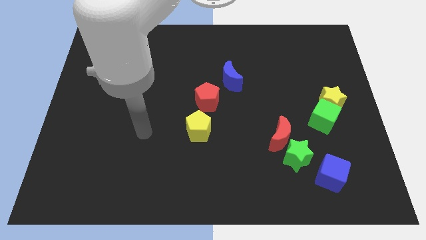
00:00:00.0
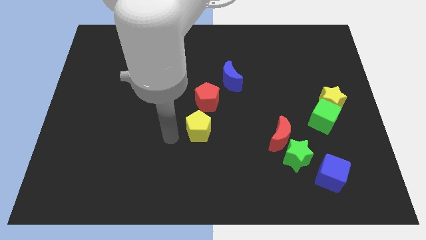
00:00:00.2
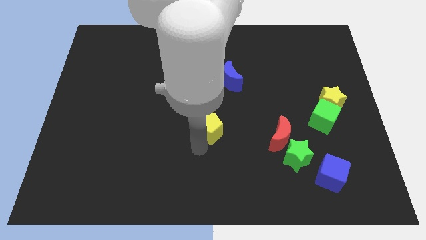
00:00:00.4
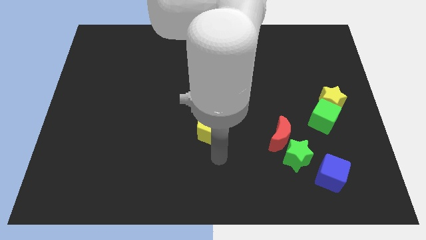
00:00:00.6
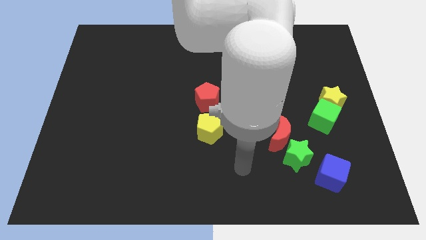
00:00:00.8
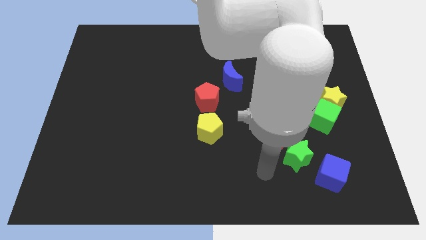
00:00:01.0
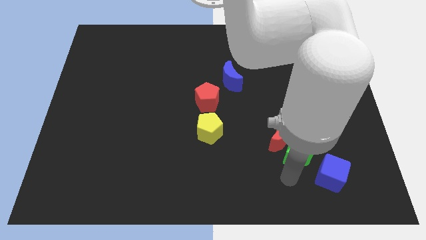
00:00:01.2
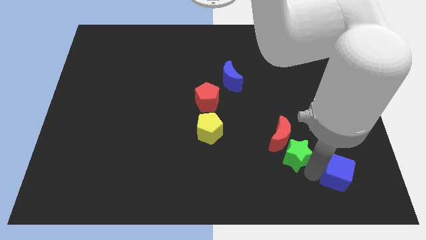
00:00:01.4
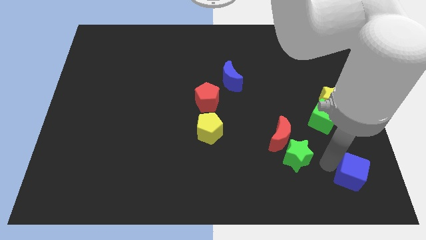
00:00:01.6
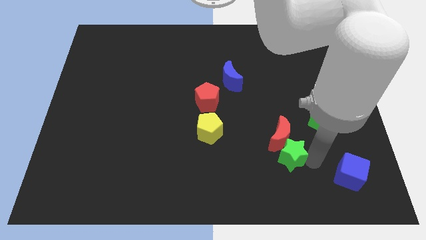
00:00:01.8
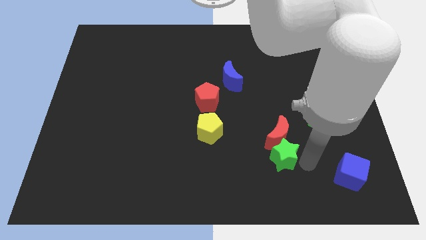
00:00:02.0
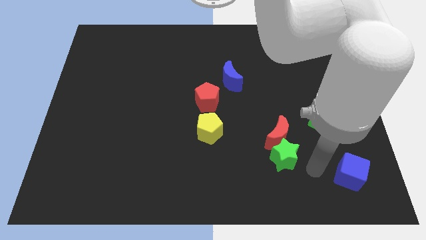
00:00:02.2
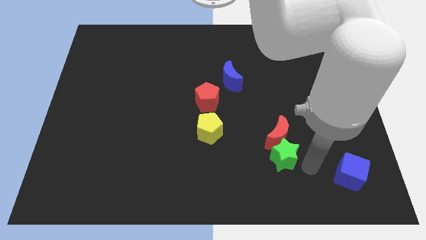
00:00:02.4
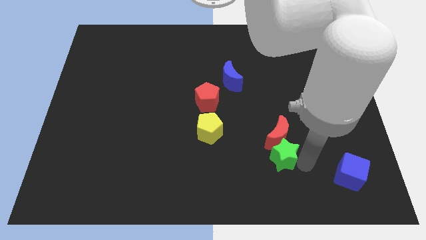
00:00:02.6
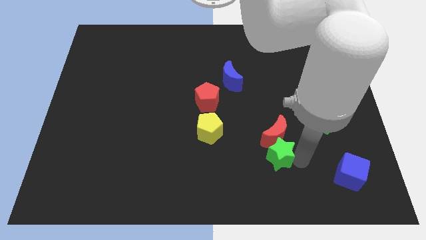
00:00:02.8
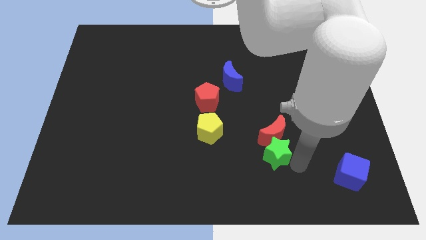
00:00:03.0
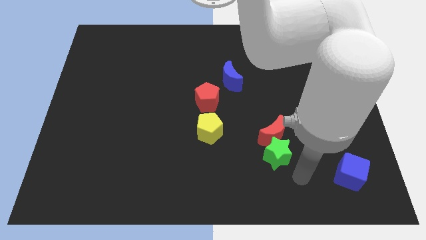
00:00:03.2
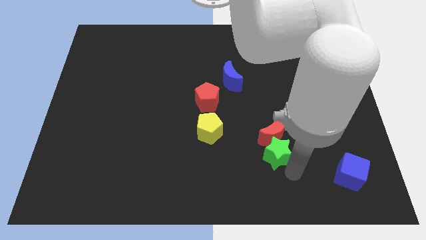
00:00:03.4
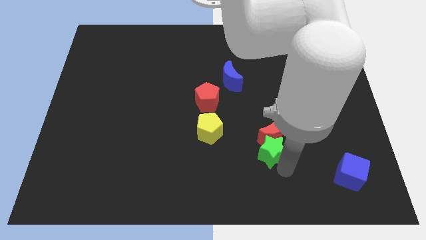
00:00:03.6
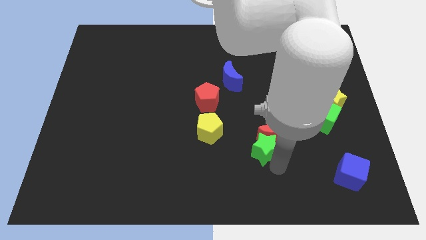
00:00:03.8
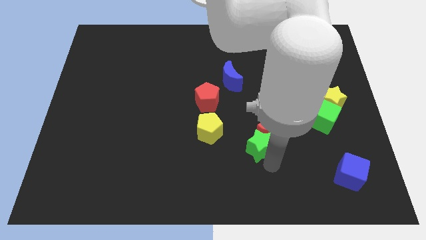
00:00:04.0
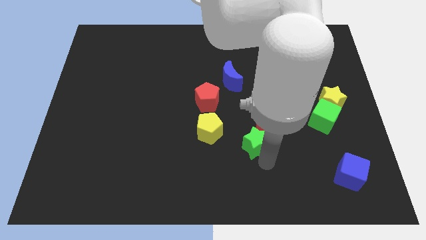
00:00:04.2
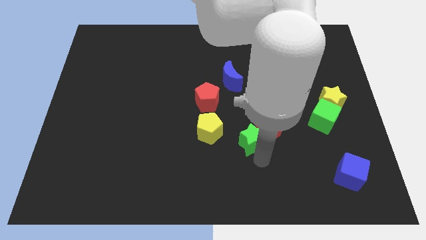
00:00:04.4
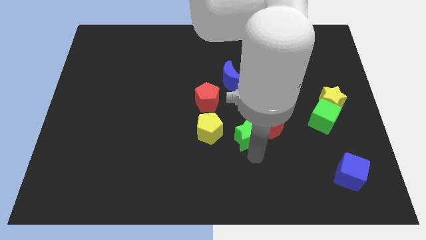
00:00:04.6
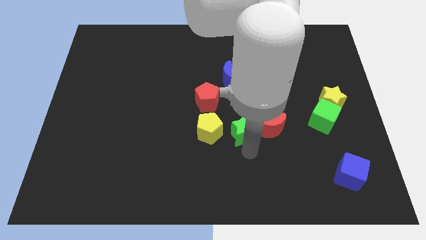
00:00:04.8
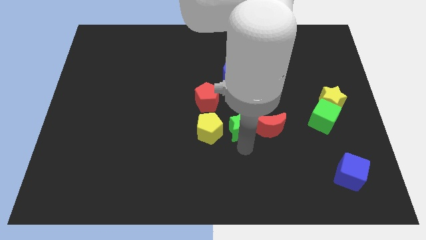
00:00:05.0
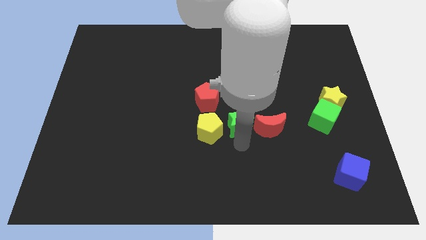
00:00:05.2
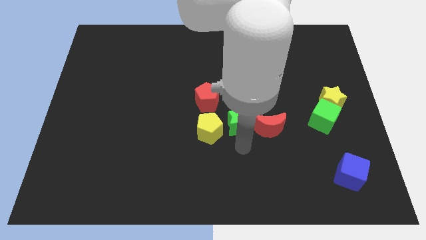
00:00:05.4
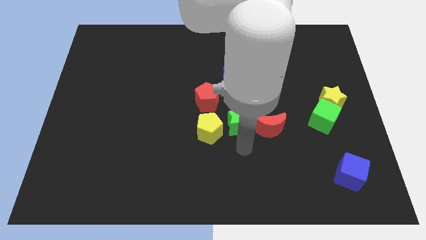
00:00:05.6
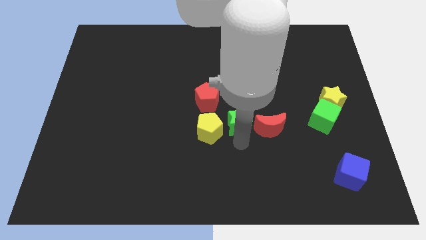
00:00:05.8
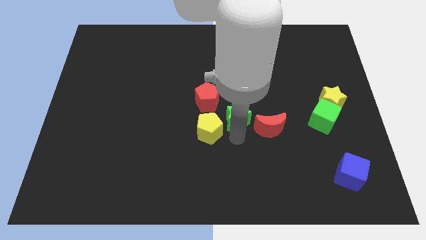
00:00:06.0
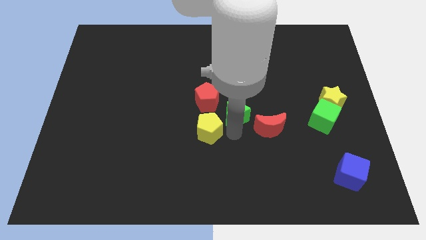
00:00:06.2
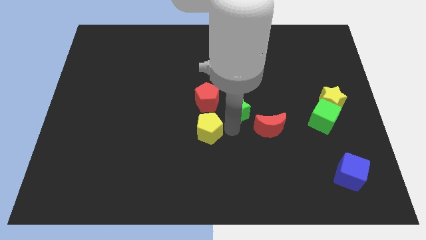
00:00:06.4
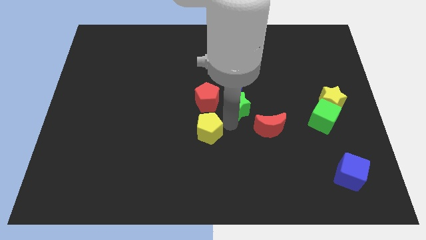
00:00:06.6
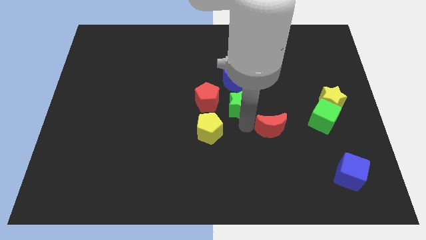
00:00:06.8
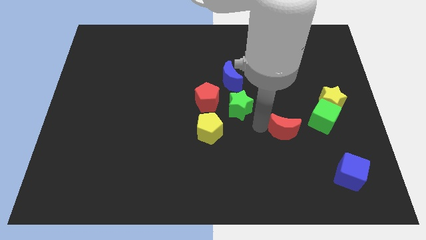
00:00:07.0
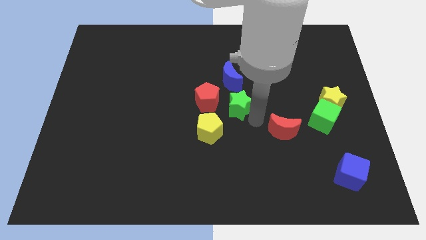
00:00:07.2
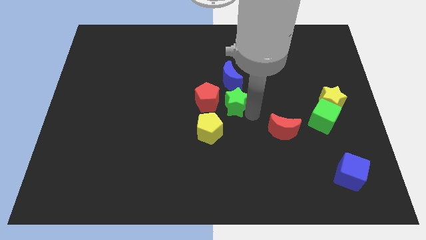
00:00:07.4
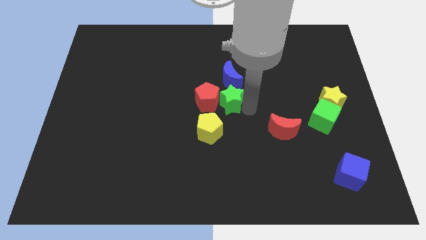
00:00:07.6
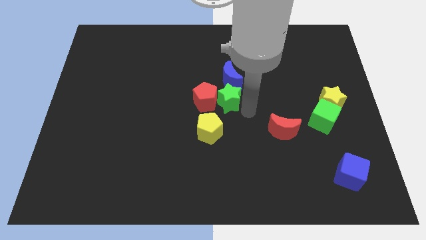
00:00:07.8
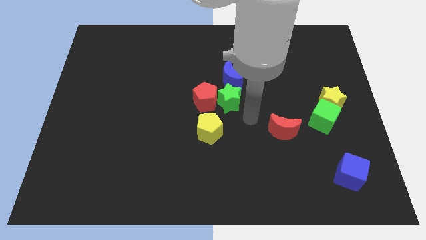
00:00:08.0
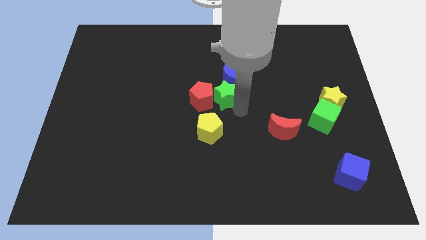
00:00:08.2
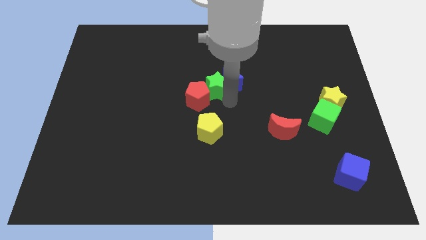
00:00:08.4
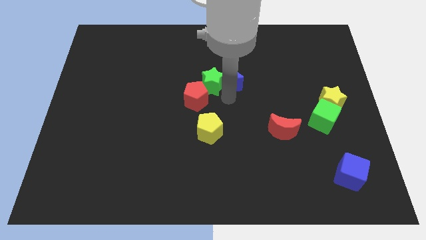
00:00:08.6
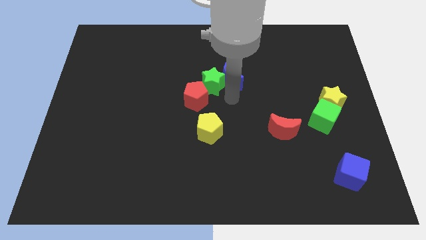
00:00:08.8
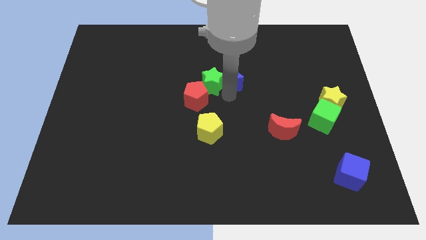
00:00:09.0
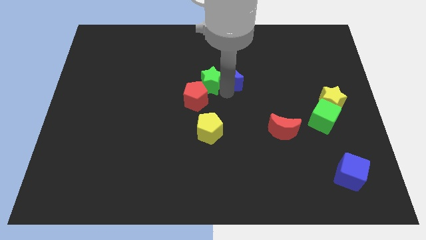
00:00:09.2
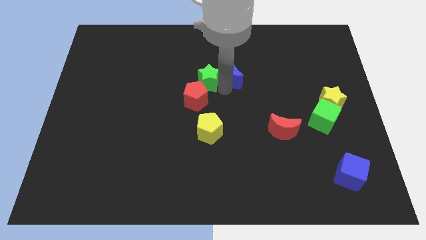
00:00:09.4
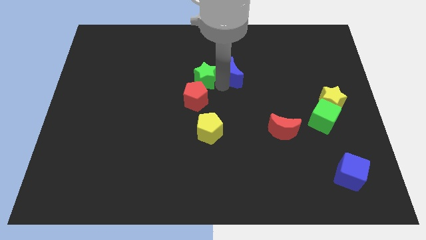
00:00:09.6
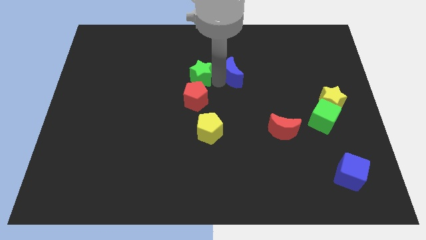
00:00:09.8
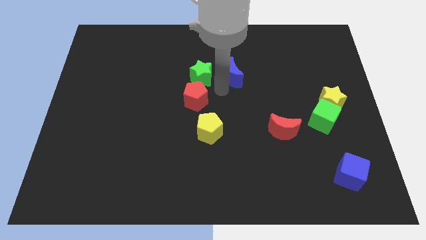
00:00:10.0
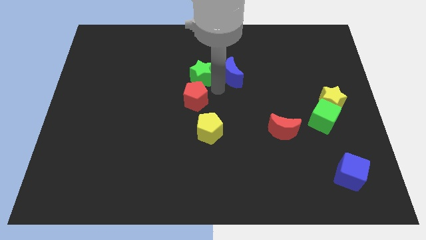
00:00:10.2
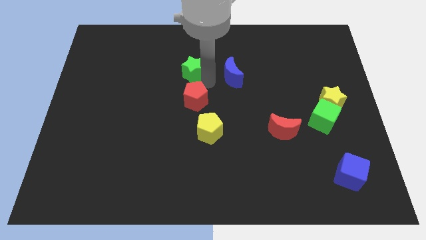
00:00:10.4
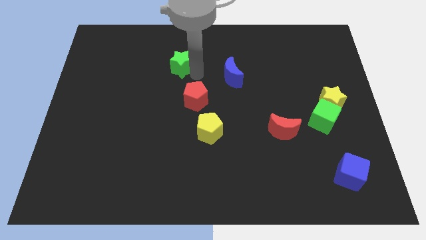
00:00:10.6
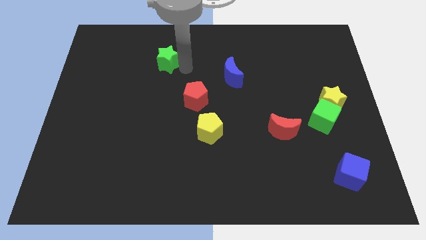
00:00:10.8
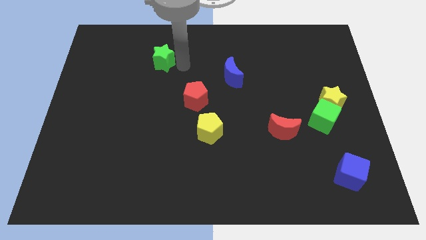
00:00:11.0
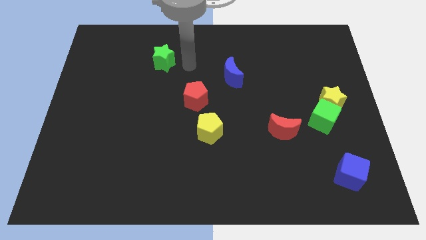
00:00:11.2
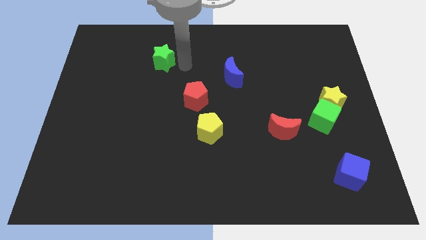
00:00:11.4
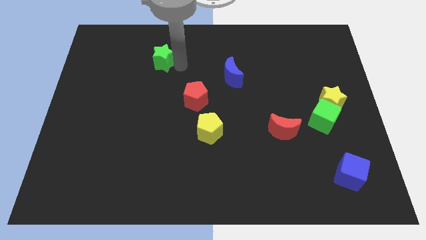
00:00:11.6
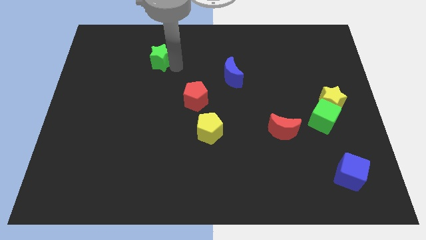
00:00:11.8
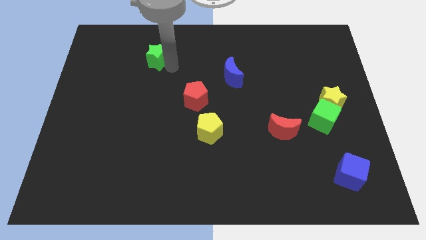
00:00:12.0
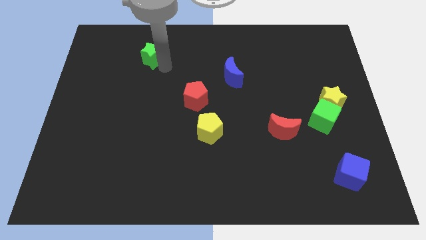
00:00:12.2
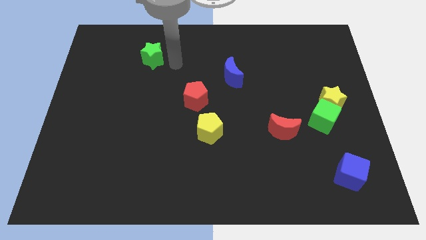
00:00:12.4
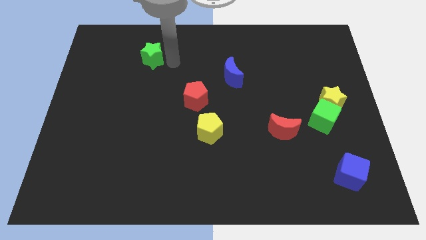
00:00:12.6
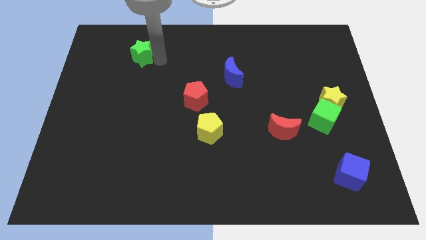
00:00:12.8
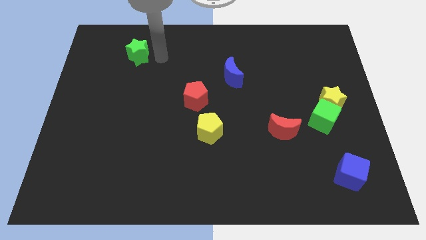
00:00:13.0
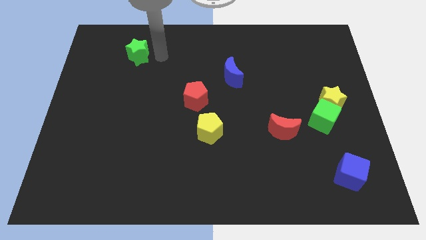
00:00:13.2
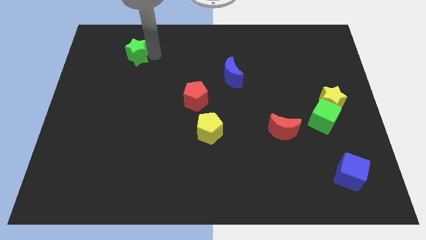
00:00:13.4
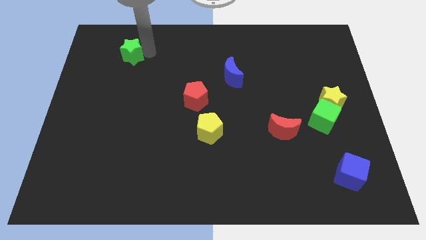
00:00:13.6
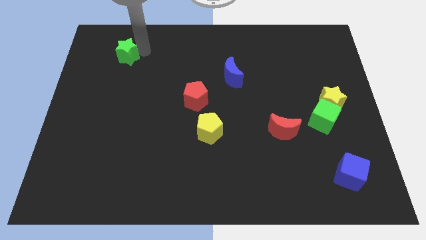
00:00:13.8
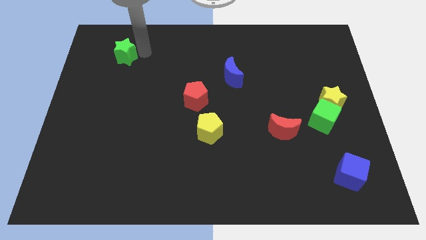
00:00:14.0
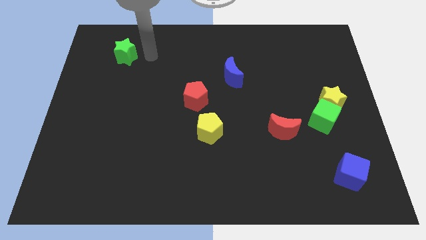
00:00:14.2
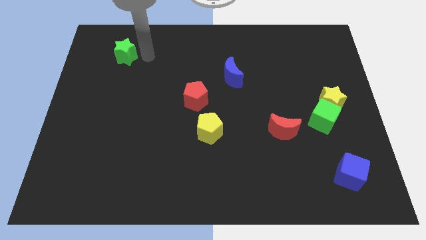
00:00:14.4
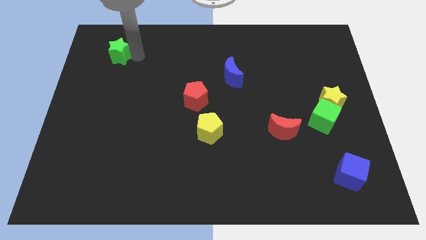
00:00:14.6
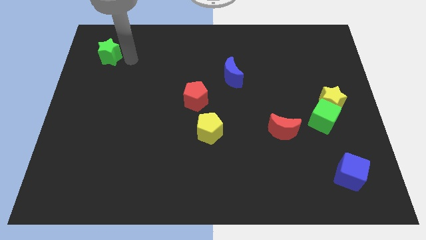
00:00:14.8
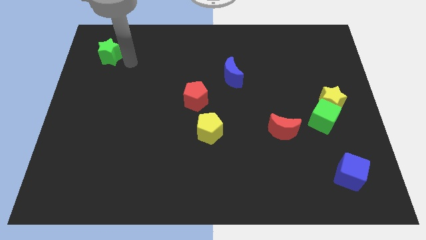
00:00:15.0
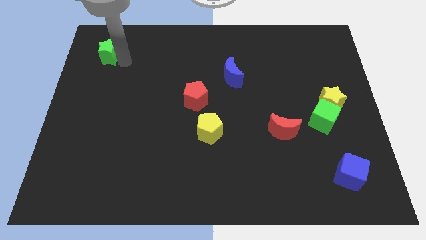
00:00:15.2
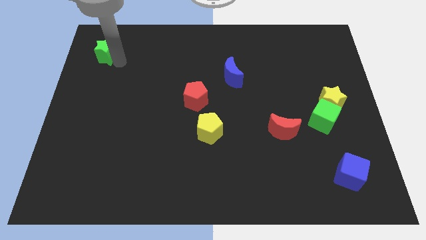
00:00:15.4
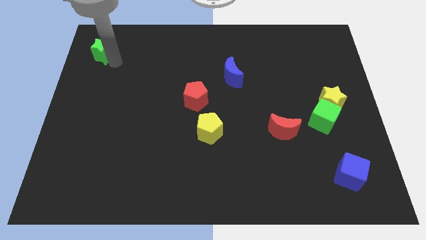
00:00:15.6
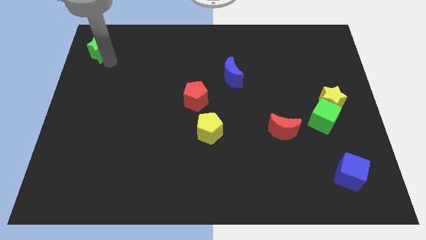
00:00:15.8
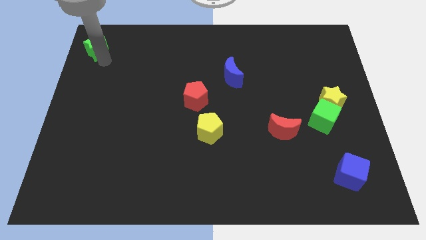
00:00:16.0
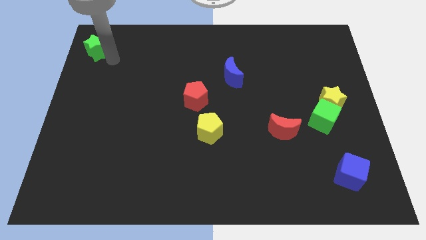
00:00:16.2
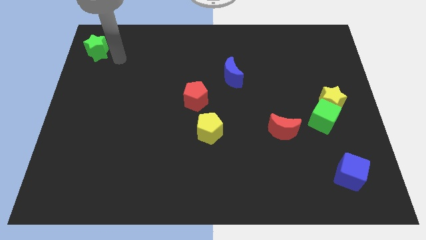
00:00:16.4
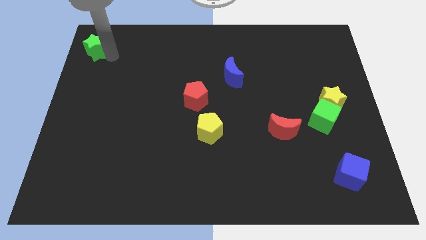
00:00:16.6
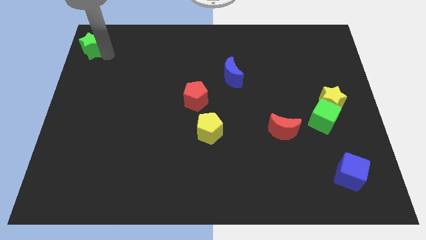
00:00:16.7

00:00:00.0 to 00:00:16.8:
push the green star to the upper left corner
